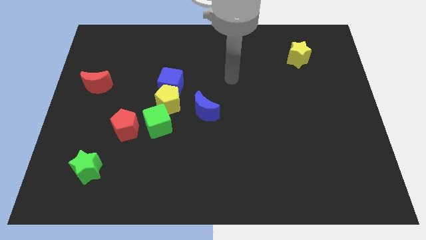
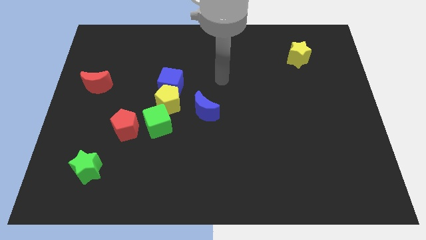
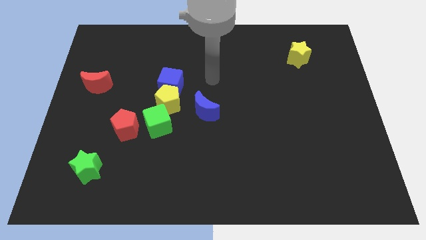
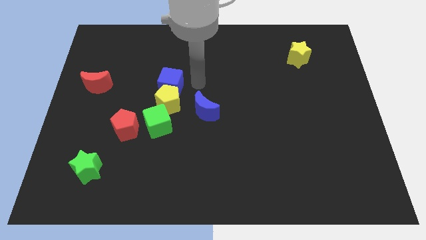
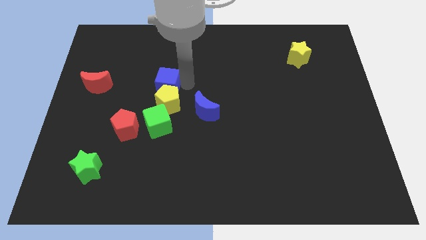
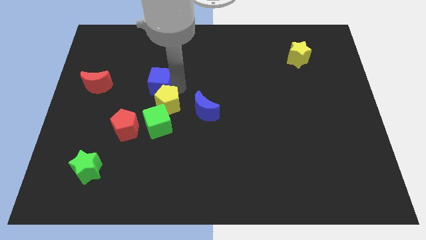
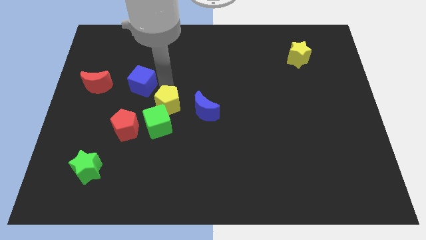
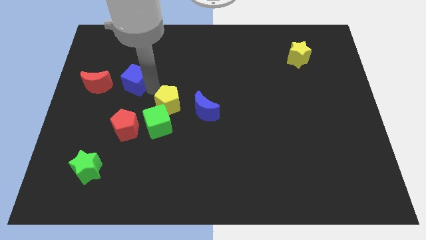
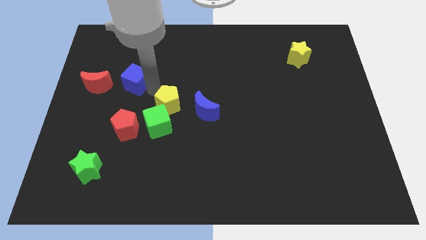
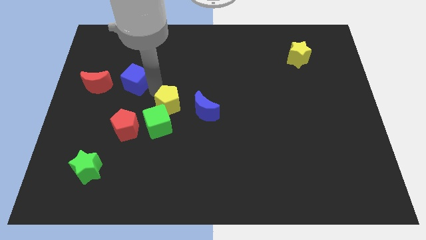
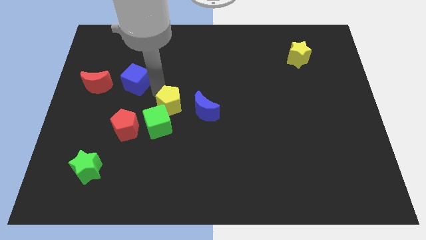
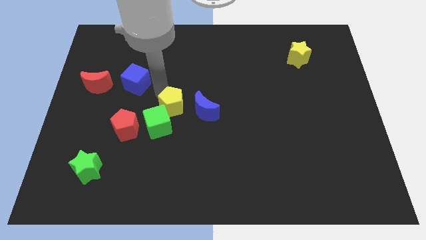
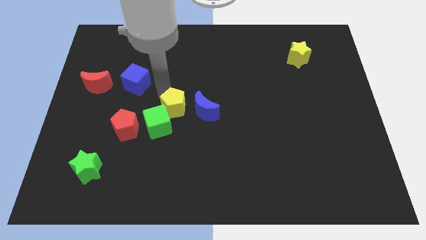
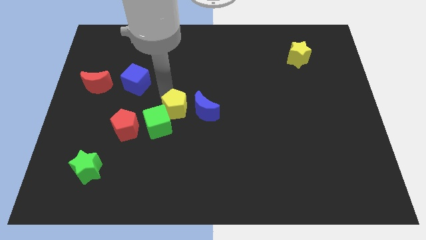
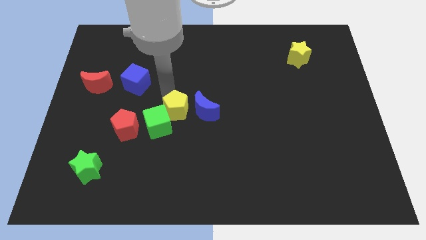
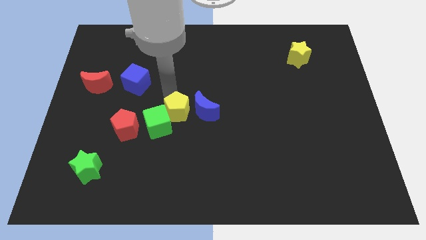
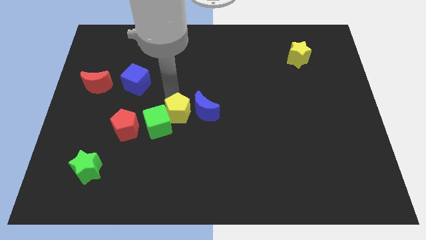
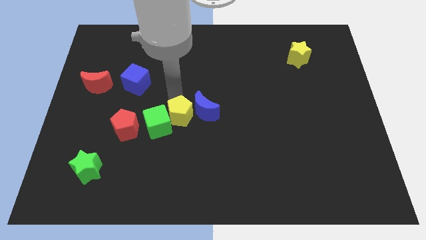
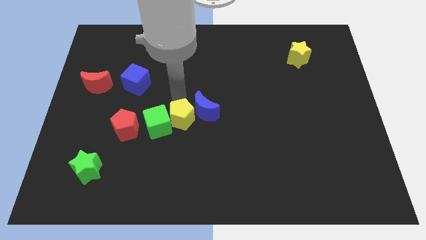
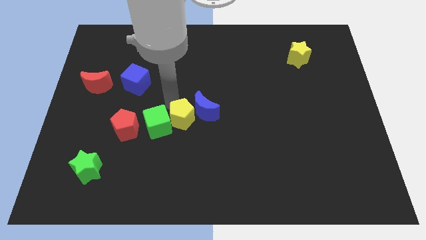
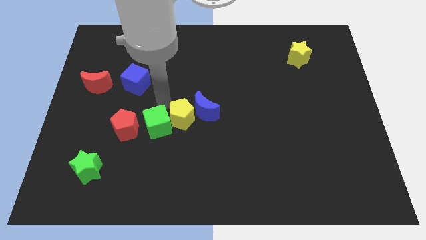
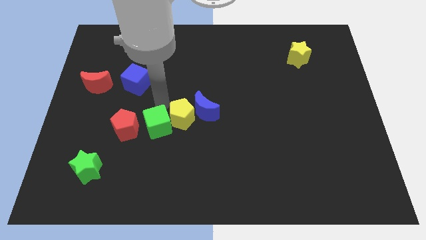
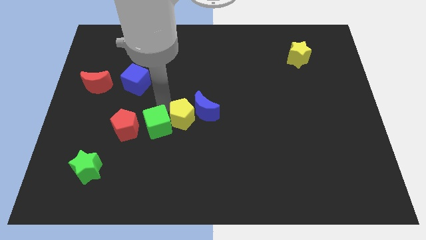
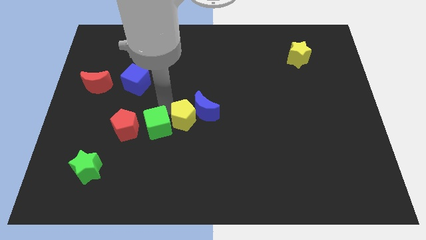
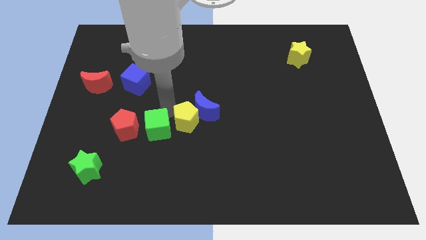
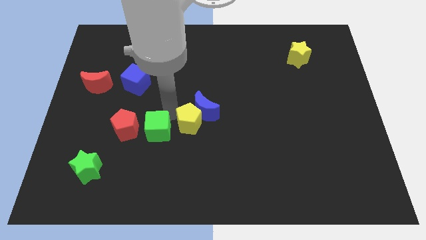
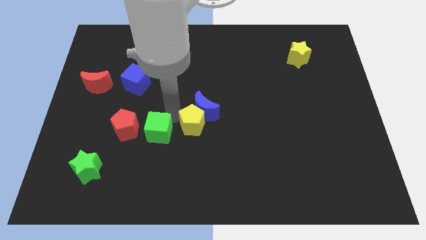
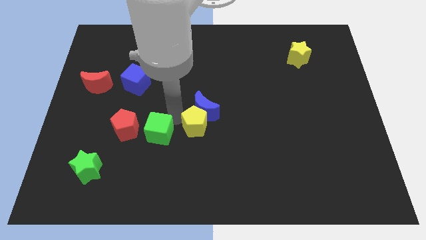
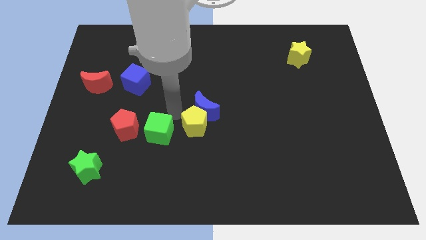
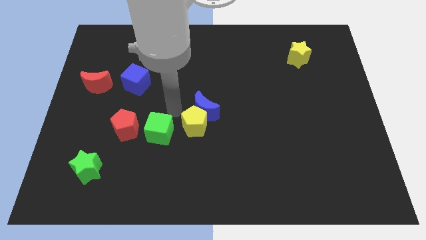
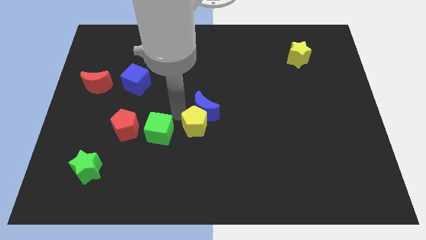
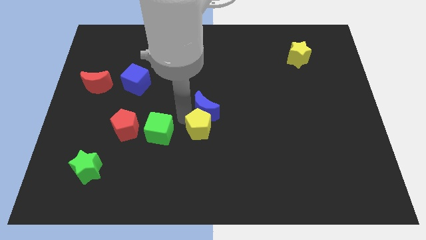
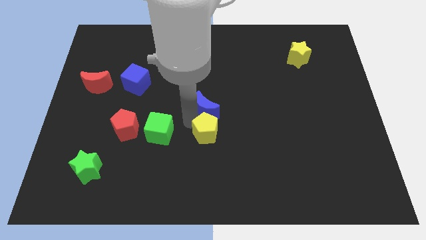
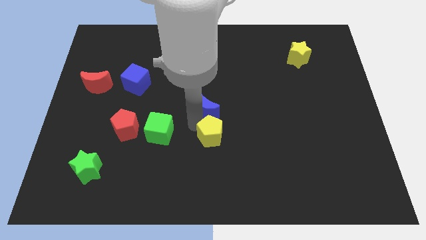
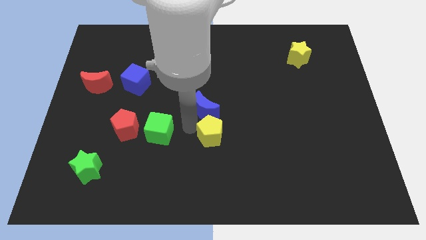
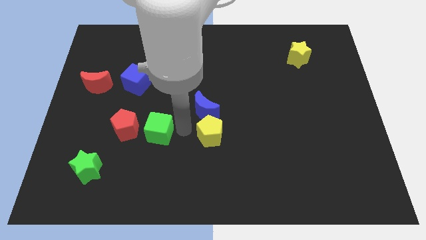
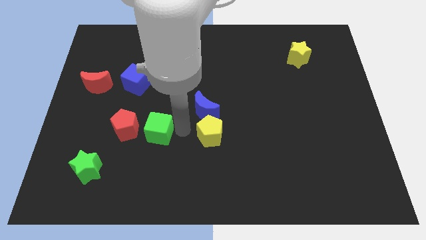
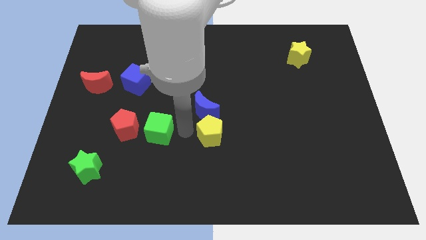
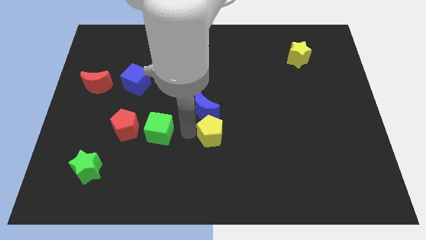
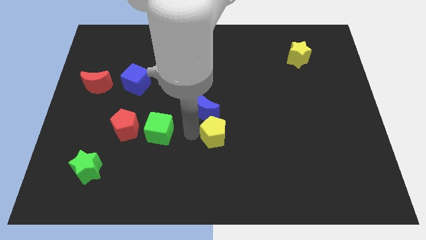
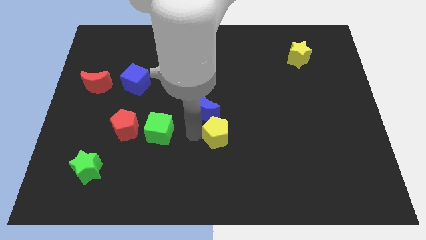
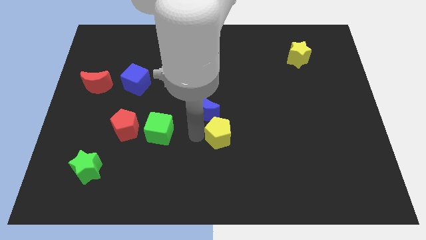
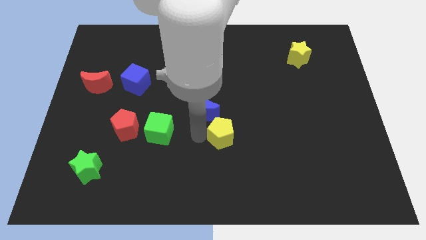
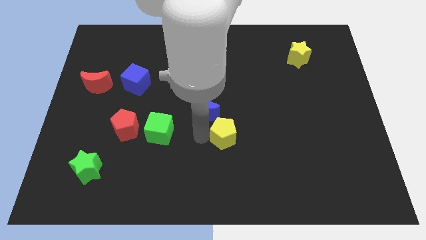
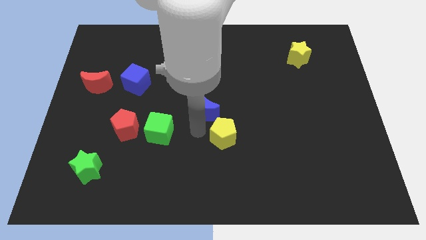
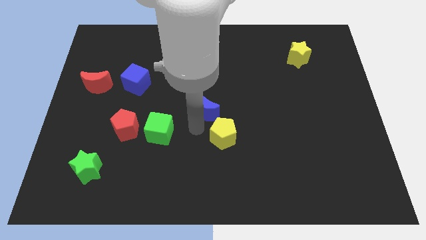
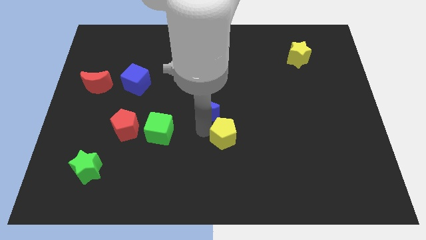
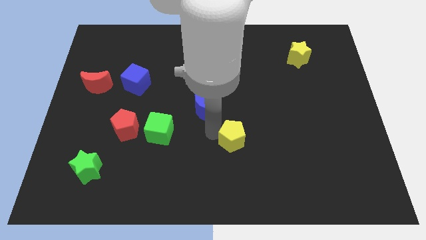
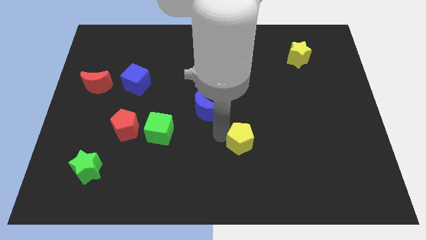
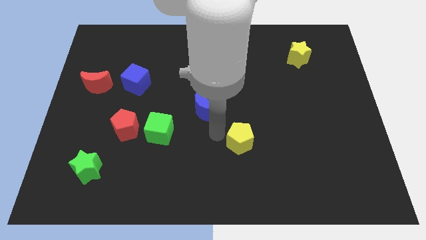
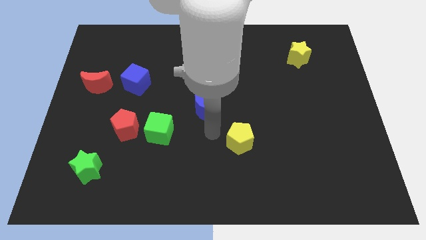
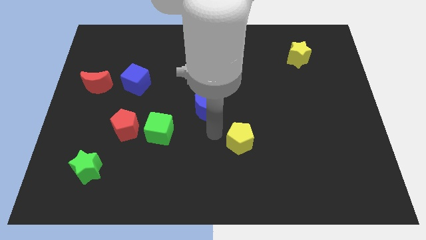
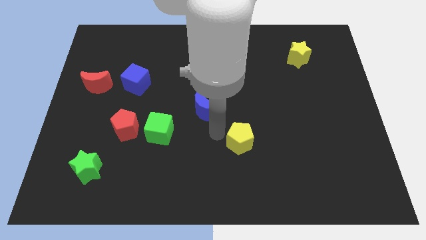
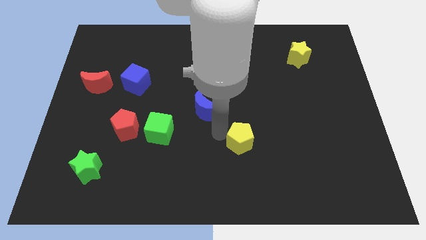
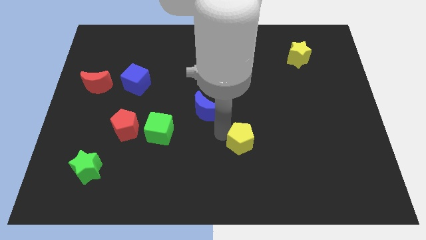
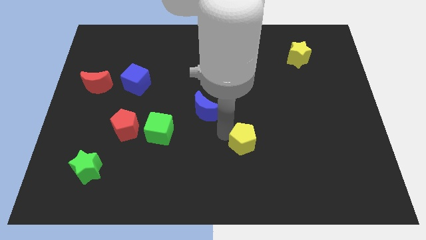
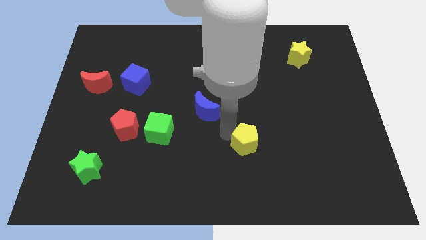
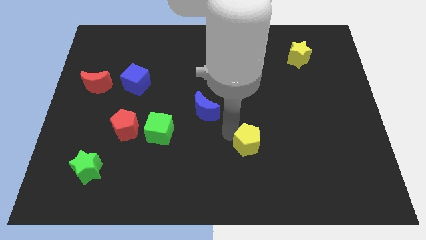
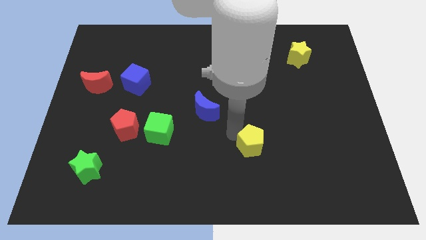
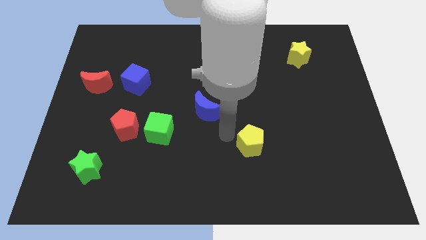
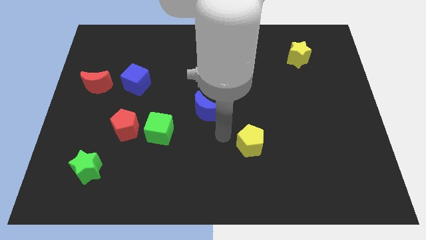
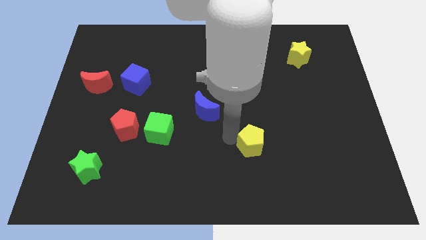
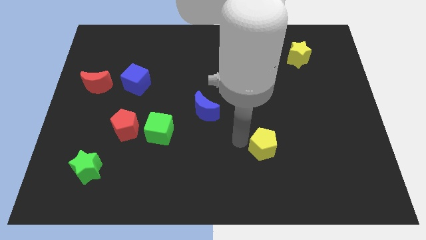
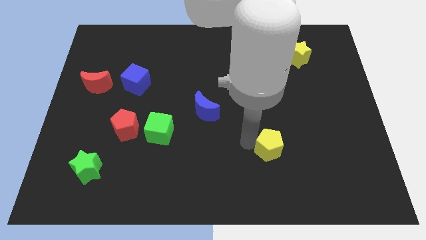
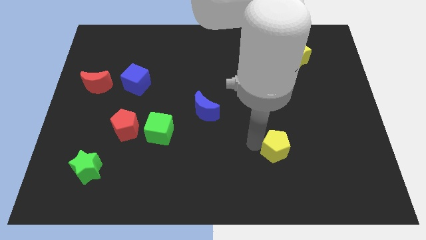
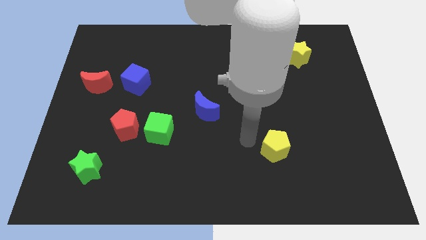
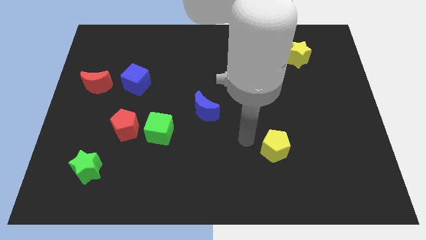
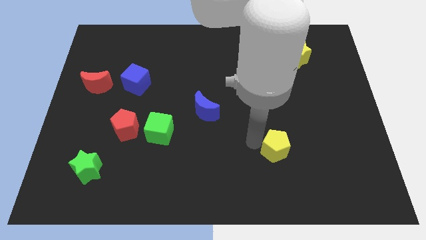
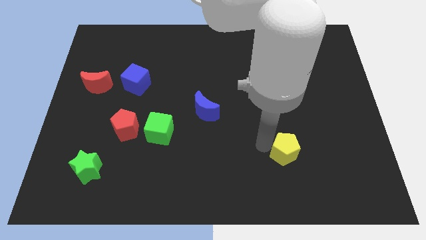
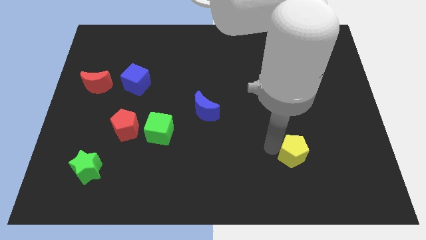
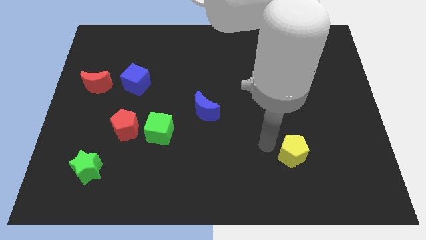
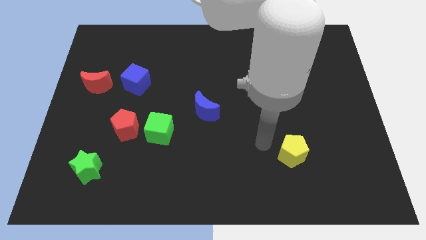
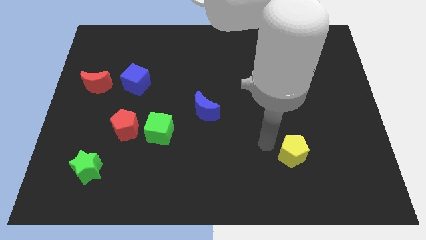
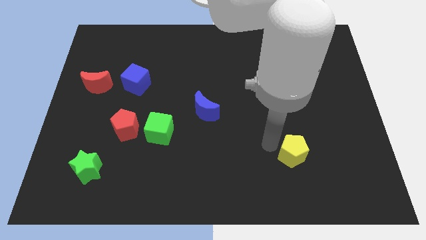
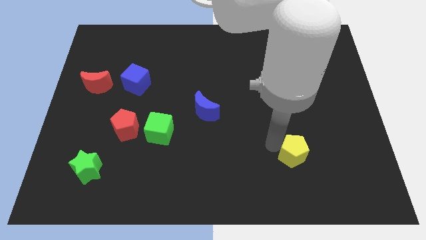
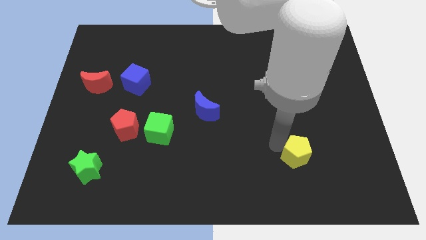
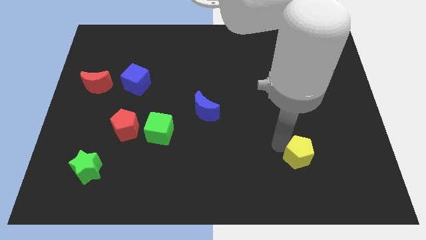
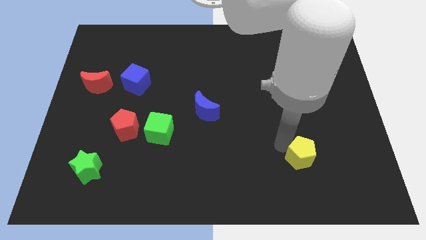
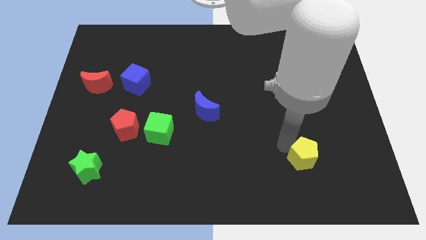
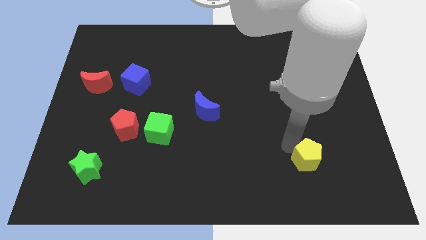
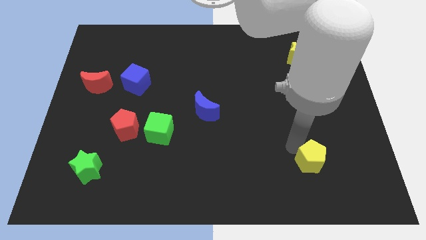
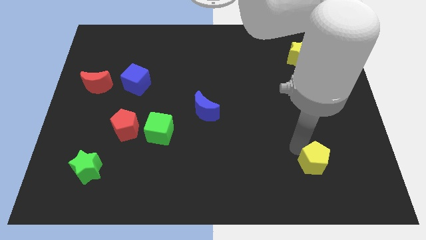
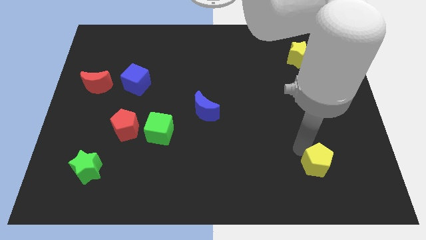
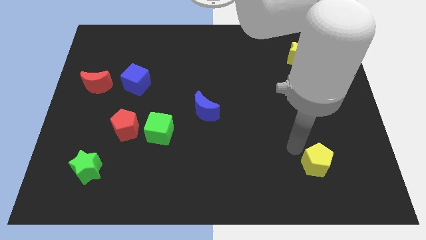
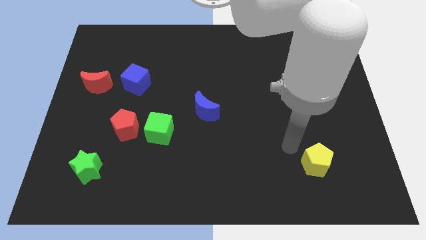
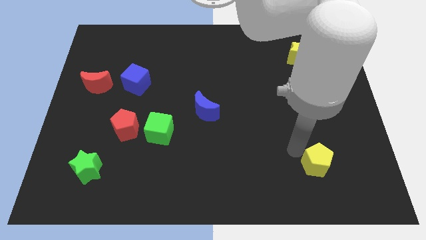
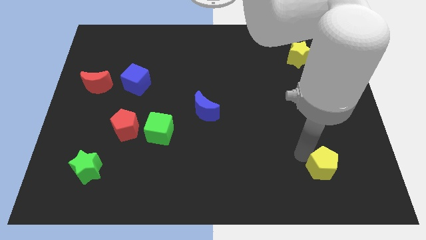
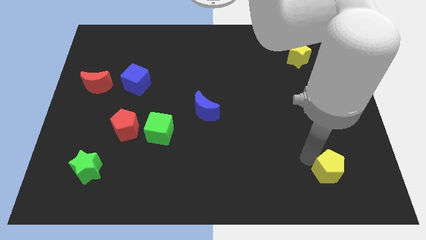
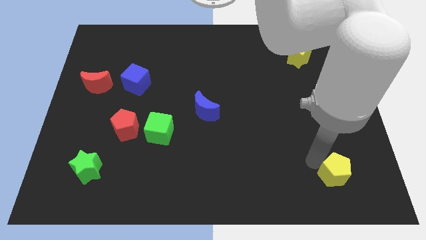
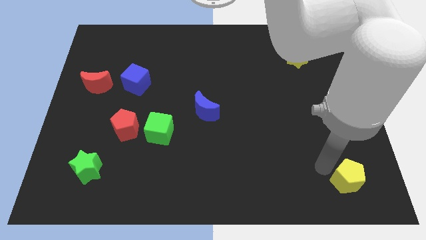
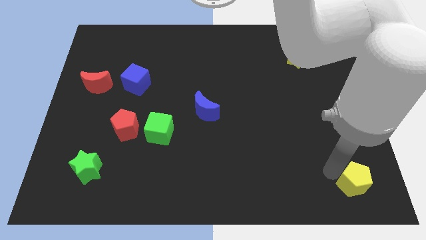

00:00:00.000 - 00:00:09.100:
move the yellow pentagon to the bottom right
